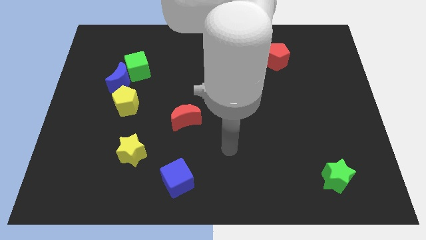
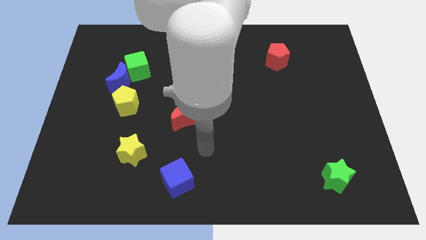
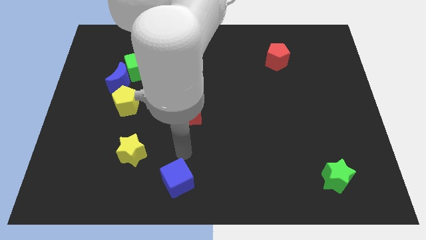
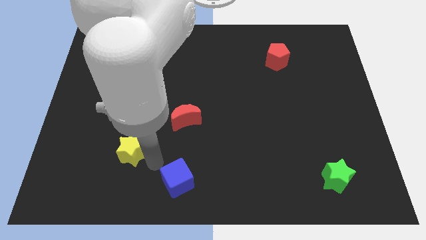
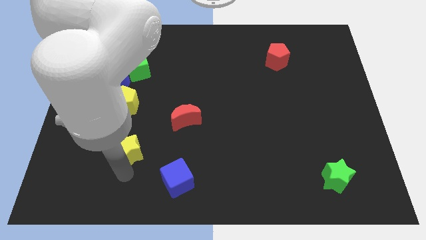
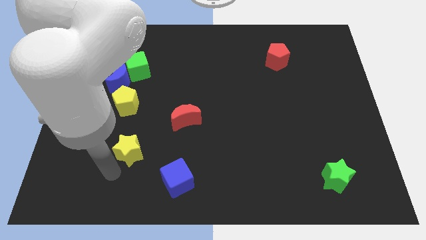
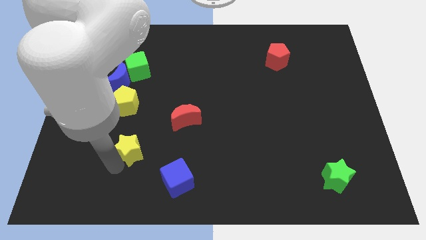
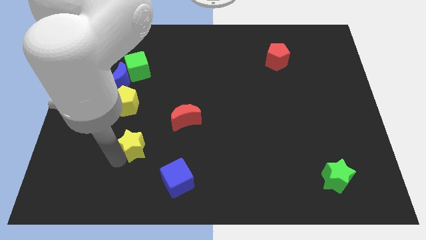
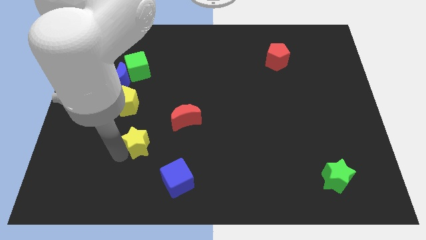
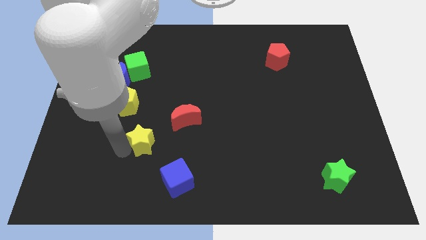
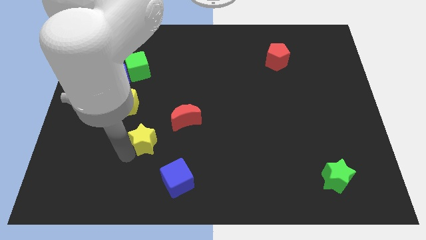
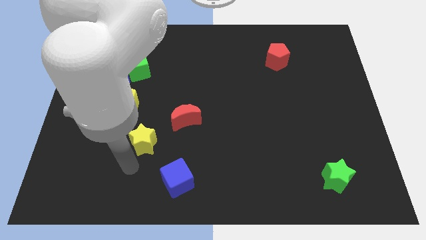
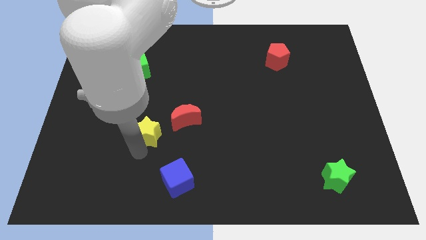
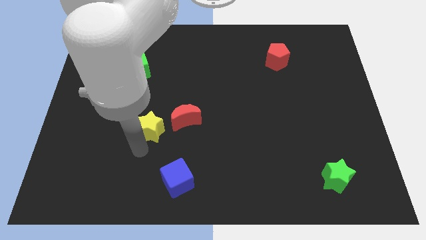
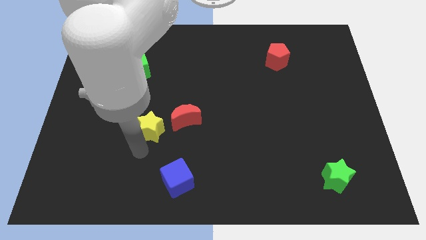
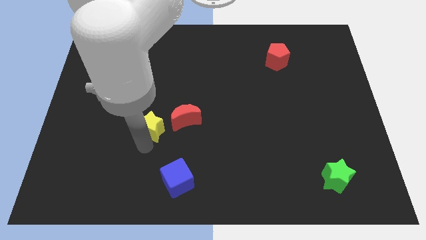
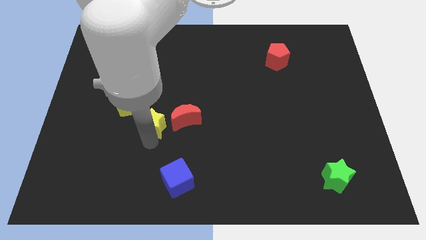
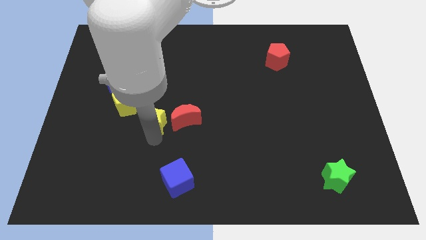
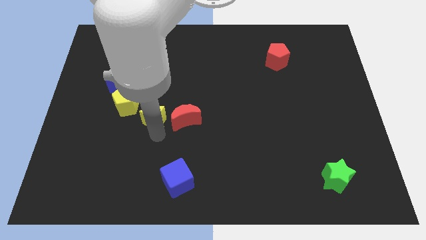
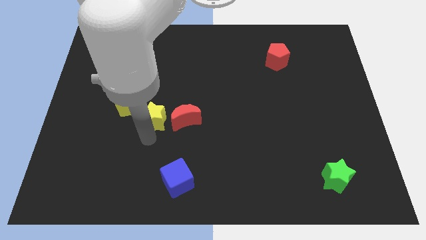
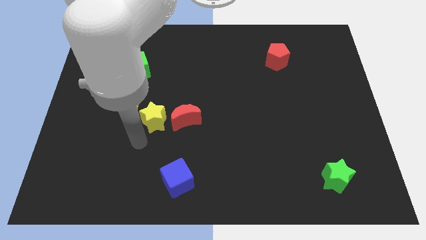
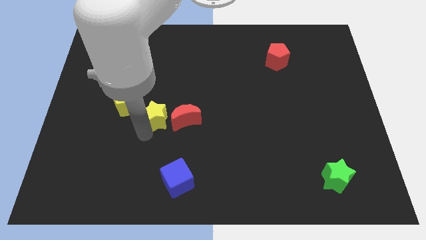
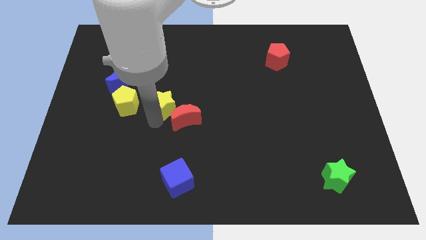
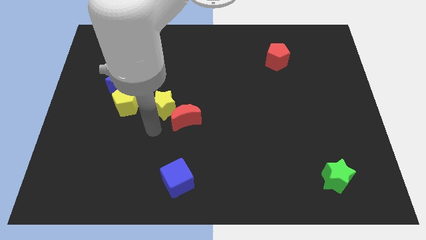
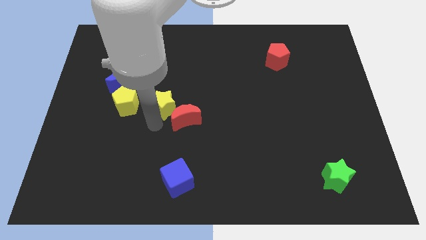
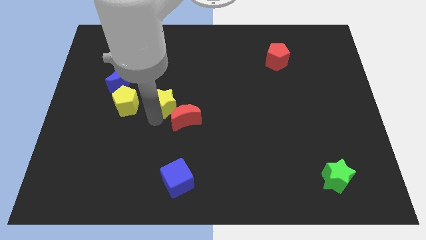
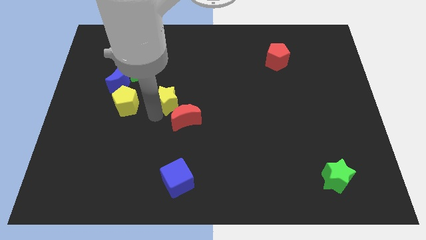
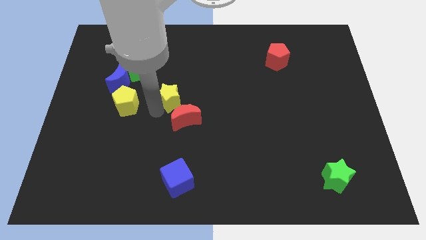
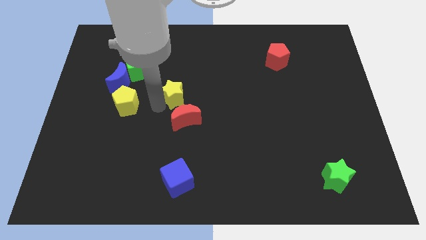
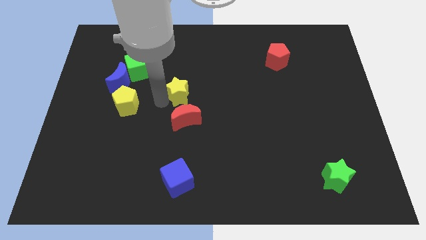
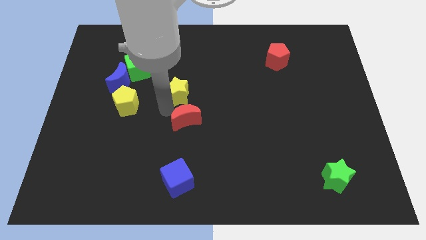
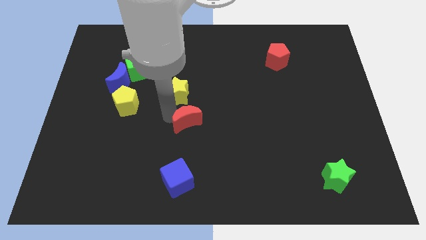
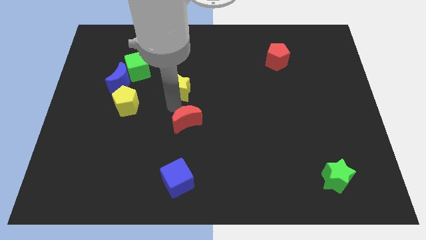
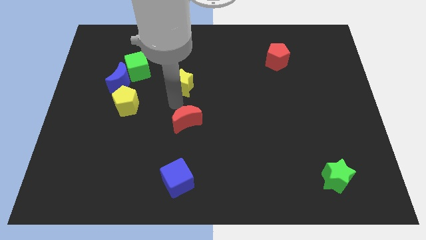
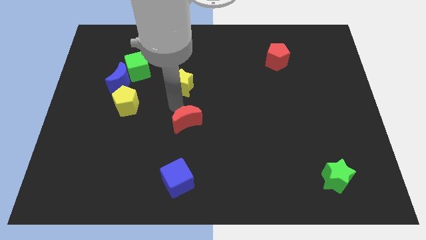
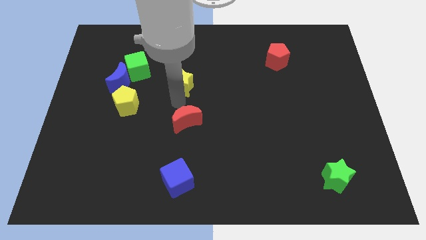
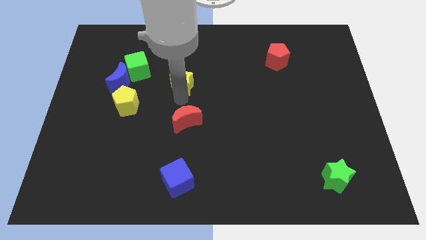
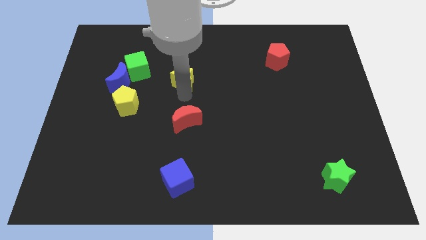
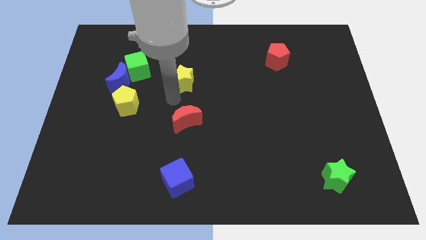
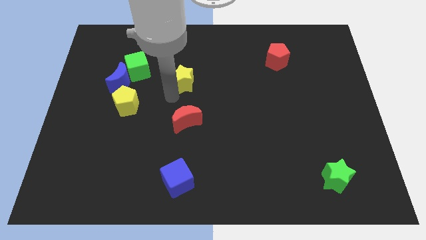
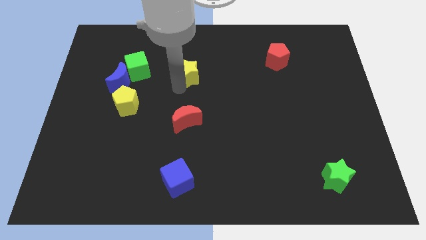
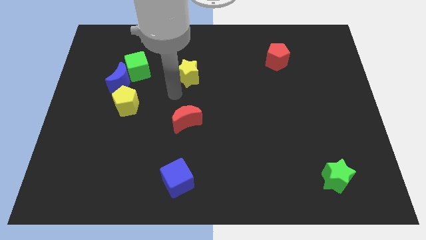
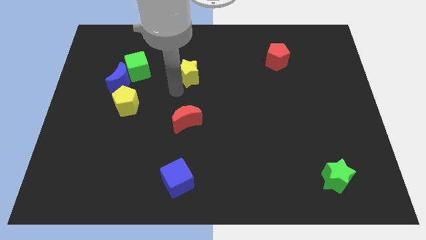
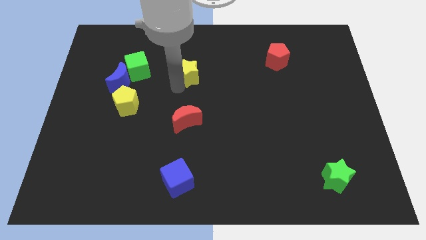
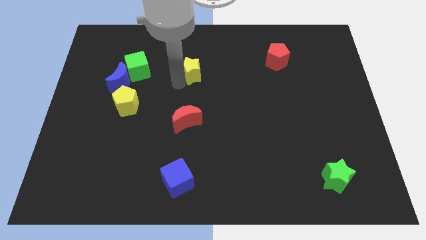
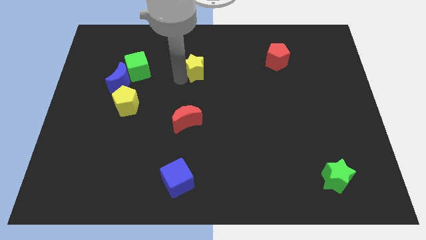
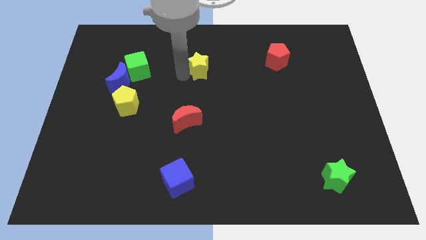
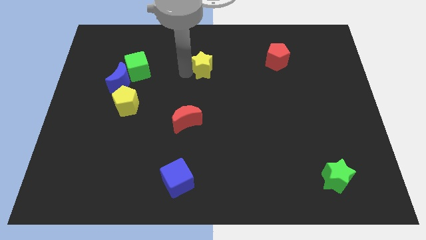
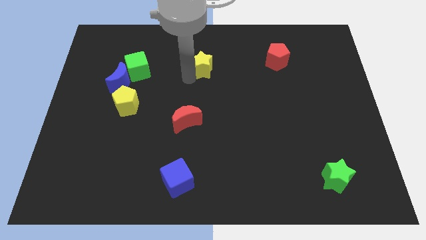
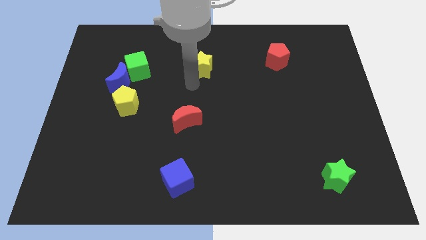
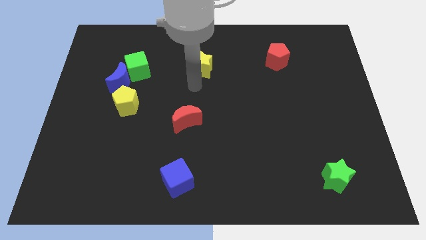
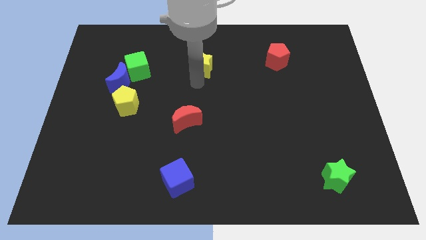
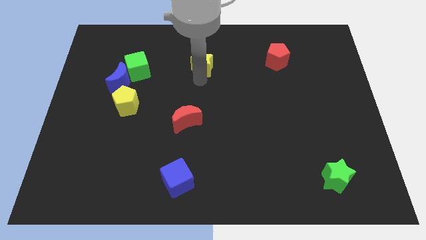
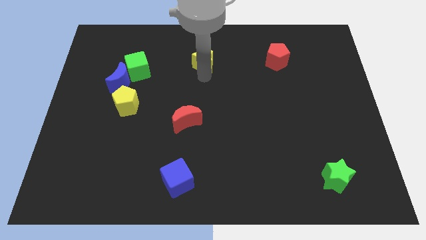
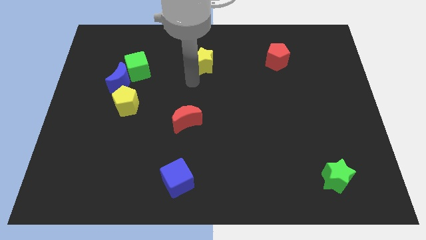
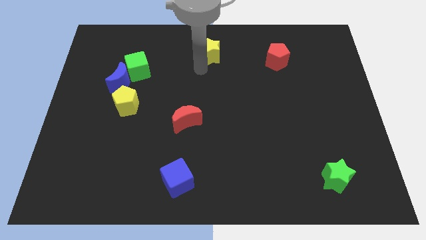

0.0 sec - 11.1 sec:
slide the yellow star to the towards your base
